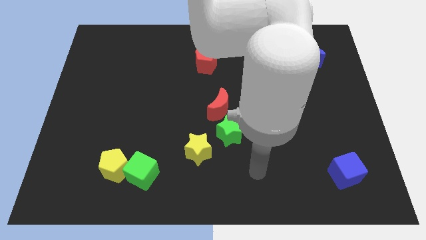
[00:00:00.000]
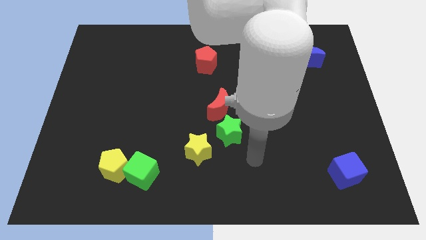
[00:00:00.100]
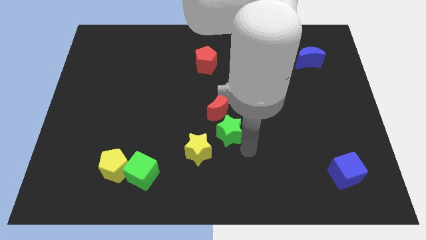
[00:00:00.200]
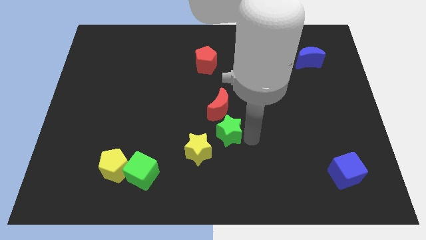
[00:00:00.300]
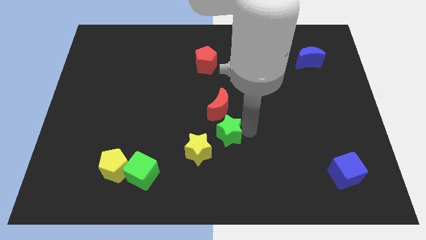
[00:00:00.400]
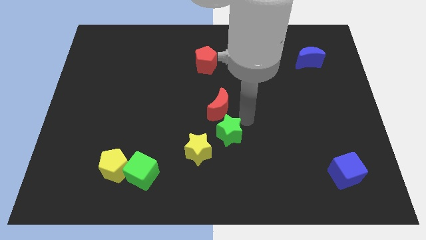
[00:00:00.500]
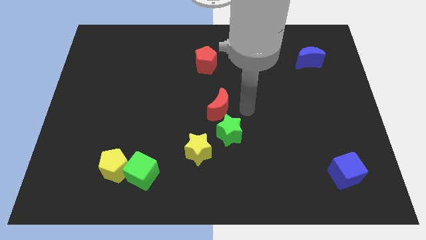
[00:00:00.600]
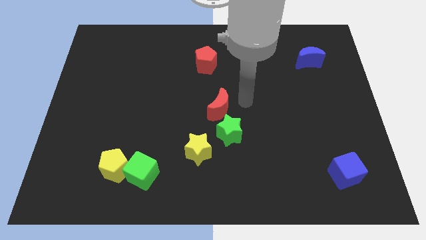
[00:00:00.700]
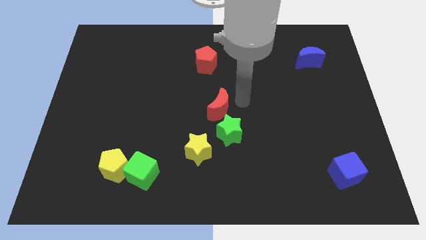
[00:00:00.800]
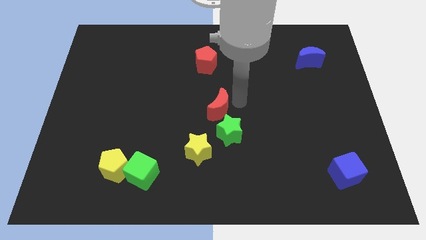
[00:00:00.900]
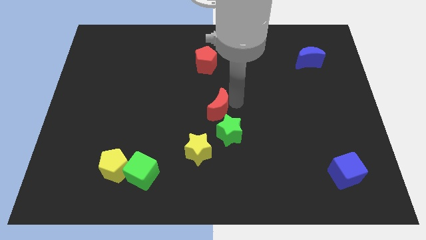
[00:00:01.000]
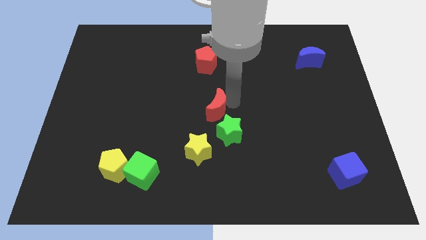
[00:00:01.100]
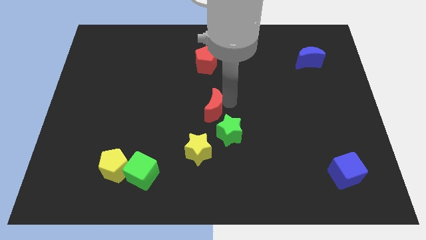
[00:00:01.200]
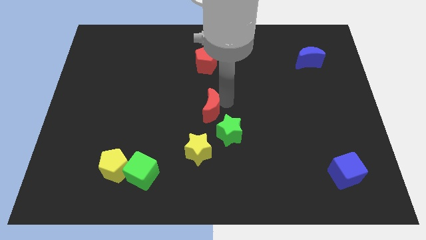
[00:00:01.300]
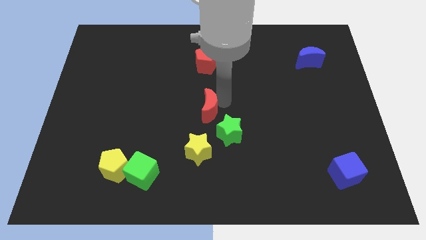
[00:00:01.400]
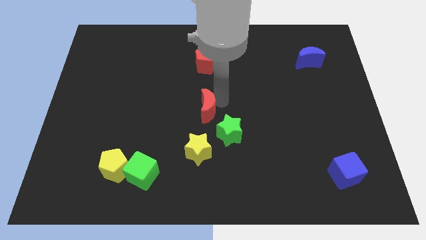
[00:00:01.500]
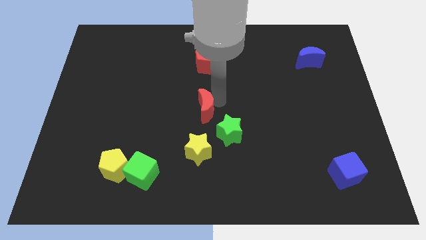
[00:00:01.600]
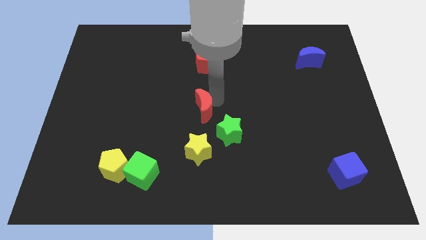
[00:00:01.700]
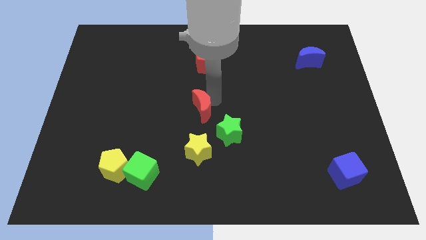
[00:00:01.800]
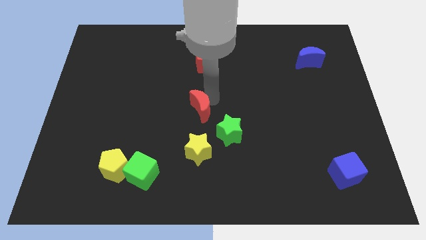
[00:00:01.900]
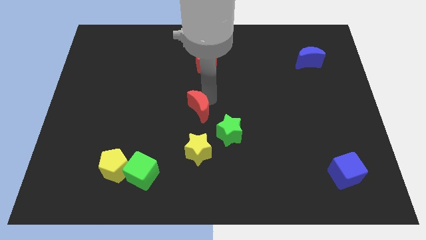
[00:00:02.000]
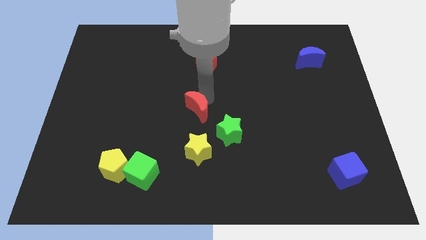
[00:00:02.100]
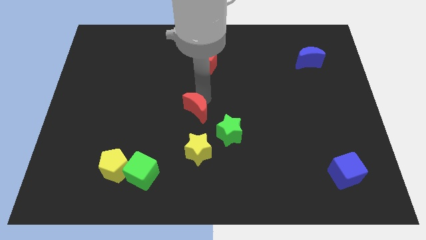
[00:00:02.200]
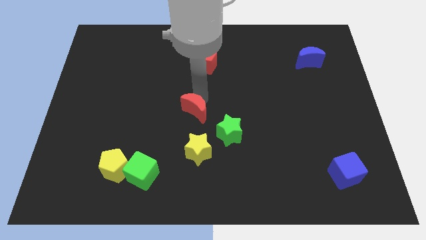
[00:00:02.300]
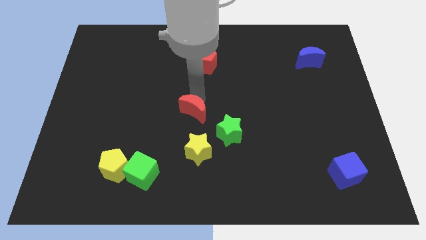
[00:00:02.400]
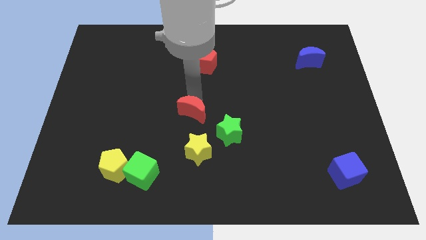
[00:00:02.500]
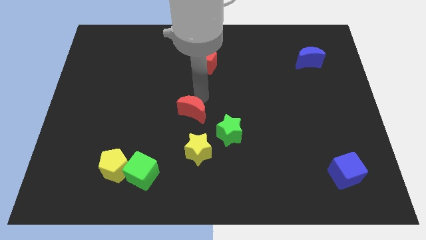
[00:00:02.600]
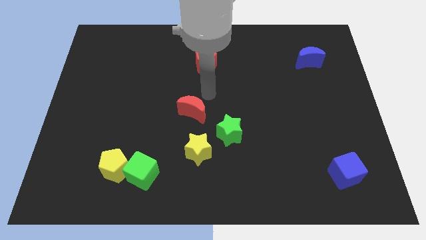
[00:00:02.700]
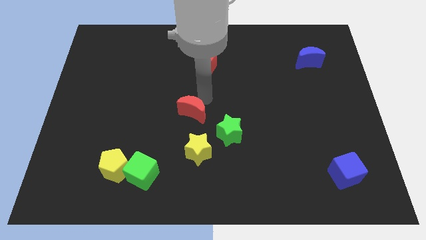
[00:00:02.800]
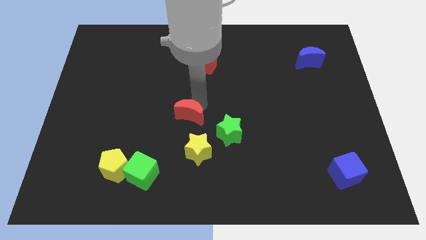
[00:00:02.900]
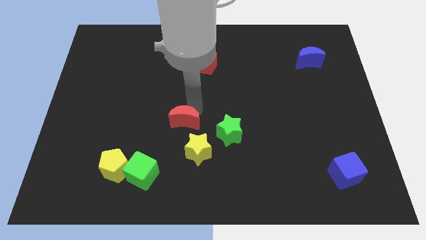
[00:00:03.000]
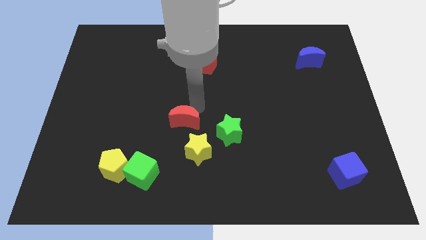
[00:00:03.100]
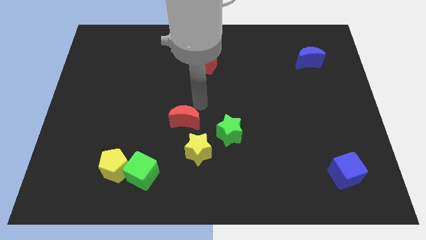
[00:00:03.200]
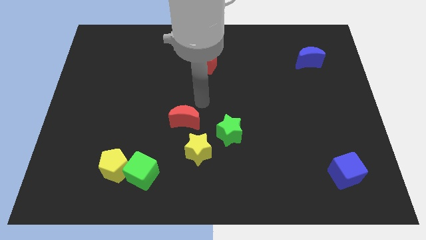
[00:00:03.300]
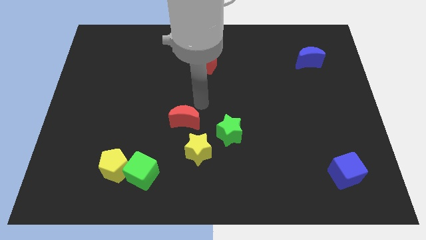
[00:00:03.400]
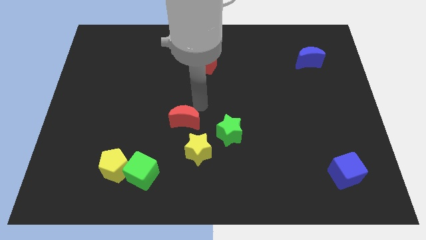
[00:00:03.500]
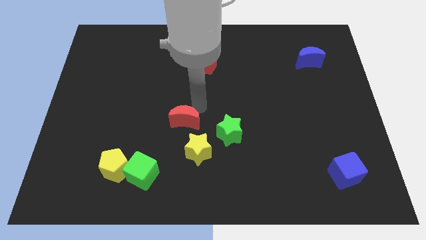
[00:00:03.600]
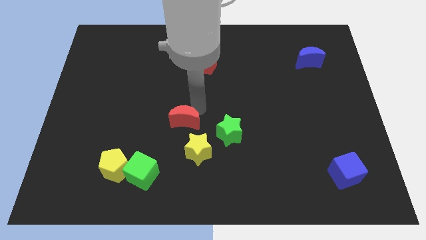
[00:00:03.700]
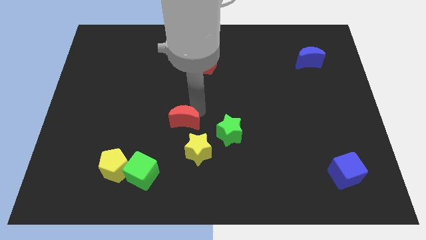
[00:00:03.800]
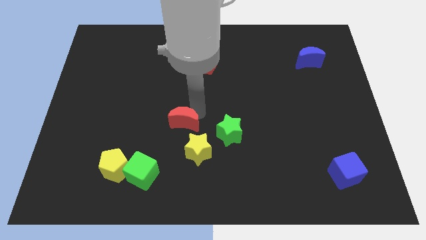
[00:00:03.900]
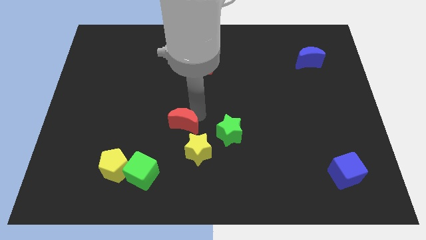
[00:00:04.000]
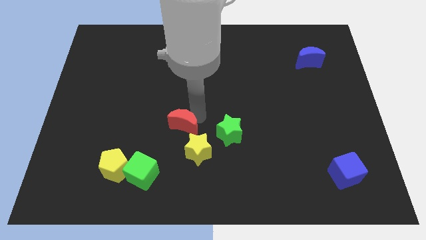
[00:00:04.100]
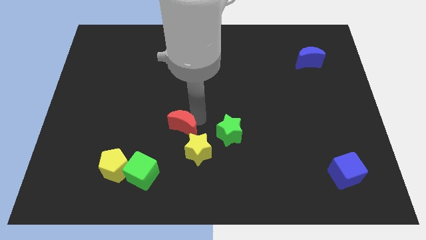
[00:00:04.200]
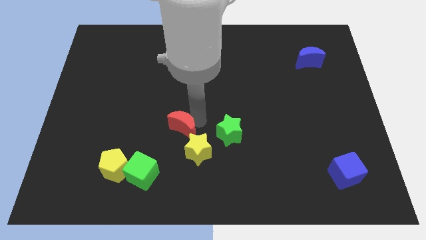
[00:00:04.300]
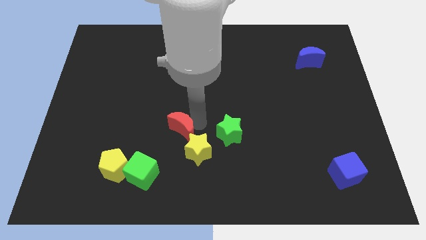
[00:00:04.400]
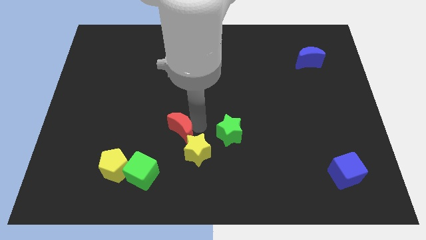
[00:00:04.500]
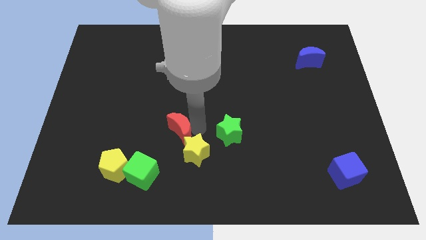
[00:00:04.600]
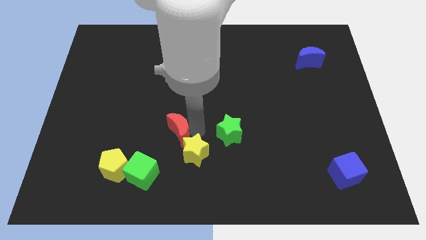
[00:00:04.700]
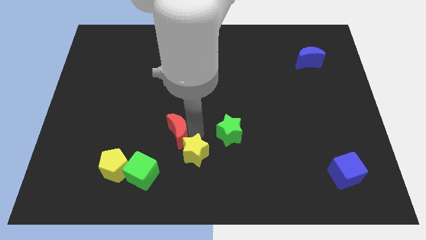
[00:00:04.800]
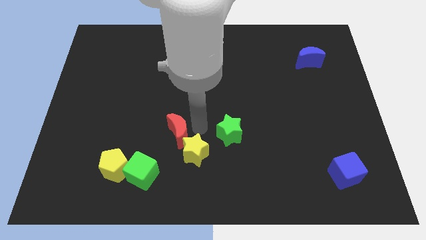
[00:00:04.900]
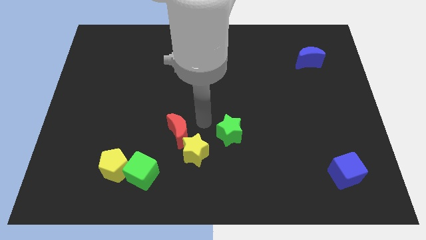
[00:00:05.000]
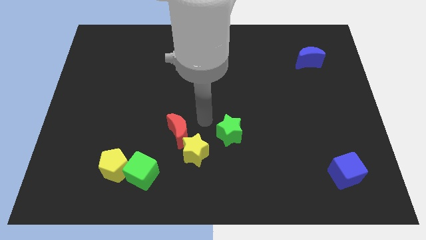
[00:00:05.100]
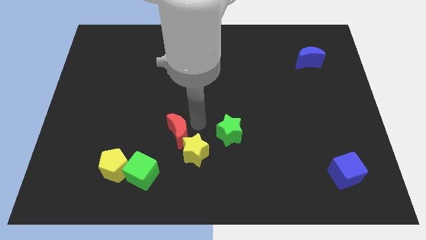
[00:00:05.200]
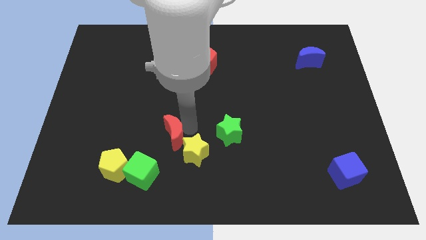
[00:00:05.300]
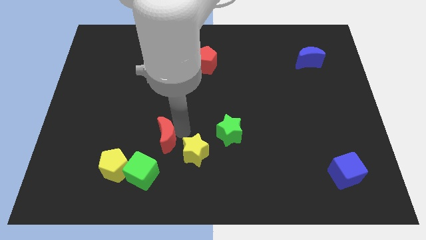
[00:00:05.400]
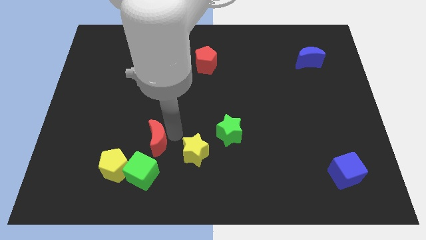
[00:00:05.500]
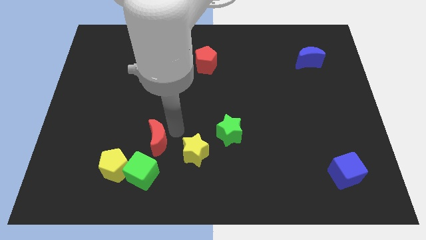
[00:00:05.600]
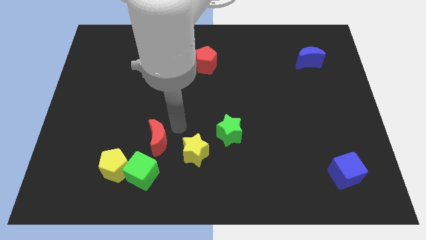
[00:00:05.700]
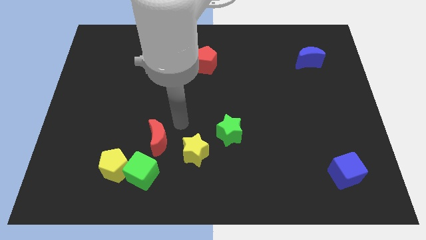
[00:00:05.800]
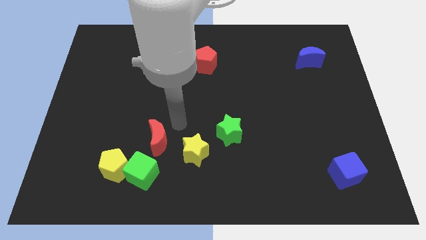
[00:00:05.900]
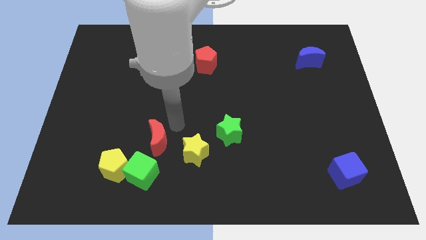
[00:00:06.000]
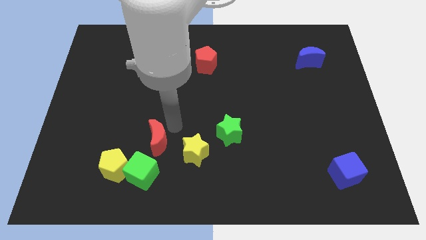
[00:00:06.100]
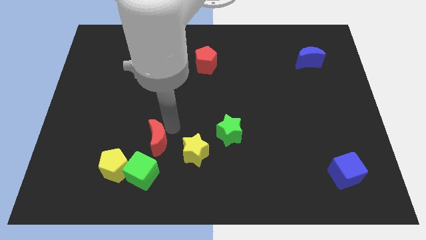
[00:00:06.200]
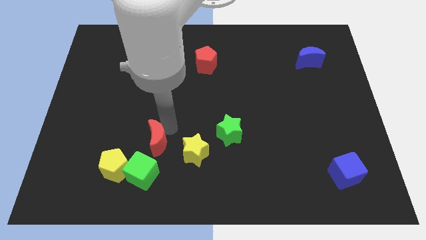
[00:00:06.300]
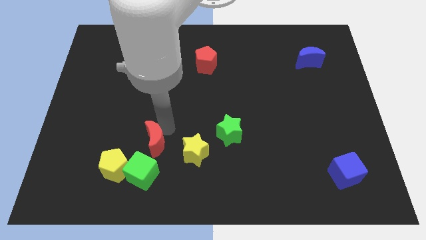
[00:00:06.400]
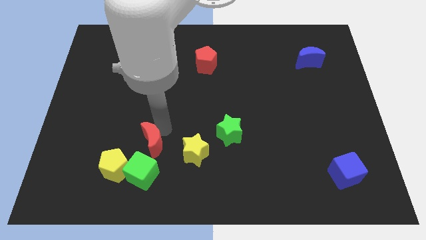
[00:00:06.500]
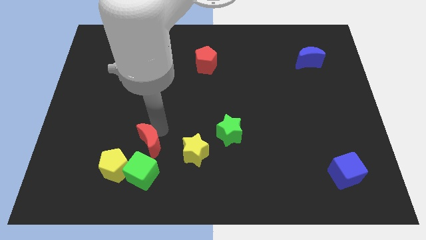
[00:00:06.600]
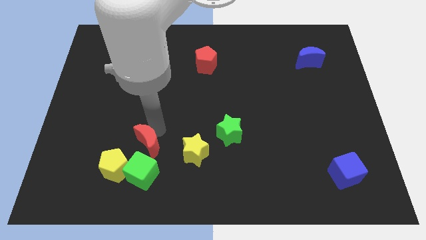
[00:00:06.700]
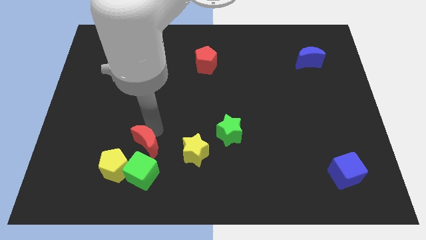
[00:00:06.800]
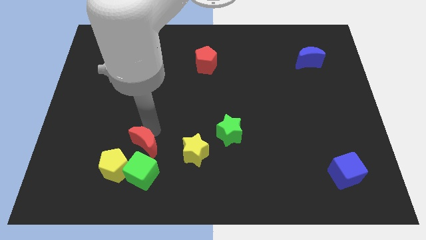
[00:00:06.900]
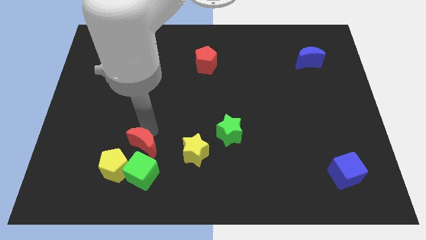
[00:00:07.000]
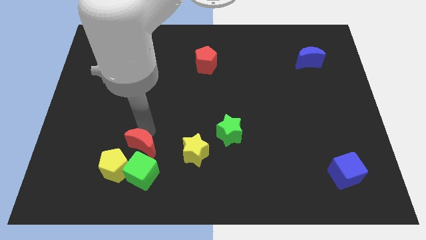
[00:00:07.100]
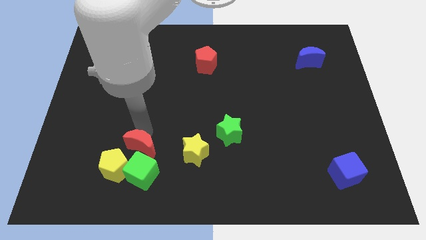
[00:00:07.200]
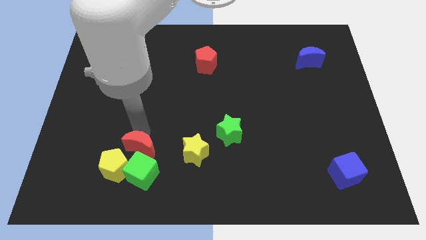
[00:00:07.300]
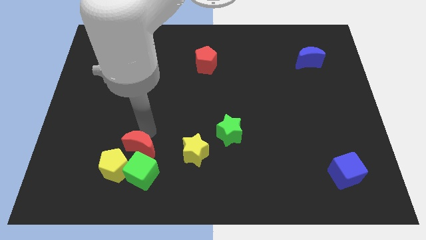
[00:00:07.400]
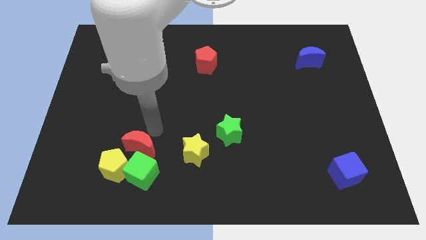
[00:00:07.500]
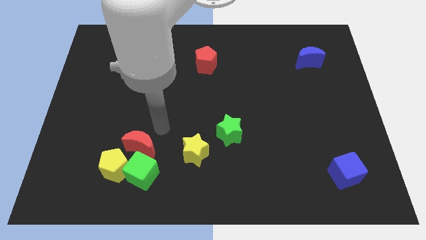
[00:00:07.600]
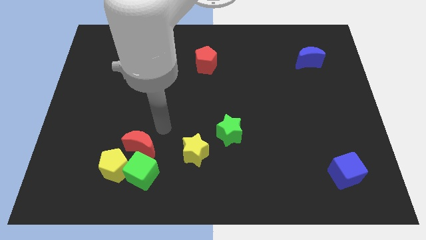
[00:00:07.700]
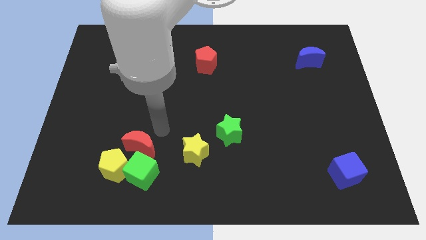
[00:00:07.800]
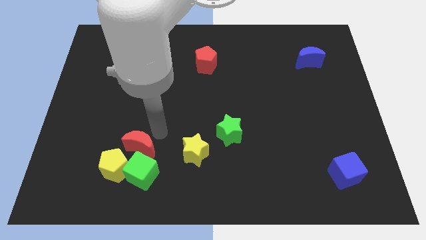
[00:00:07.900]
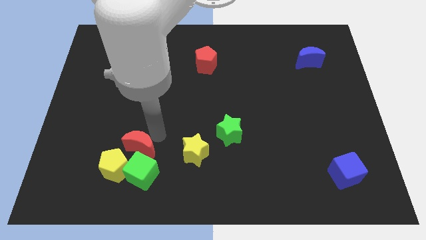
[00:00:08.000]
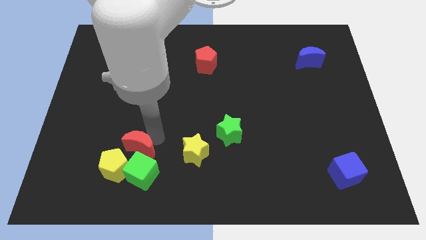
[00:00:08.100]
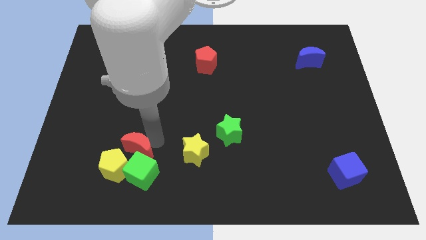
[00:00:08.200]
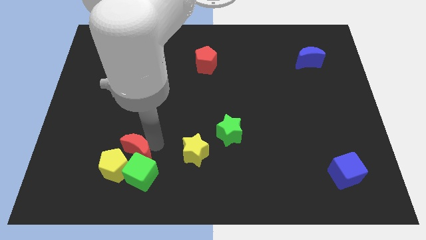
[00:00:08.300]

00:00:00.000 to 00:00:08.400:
push the red moon close to the yellow pentagon
